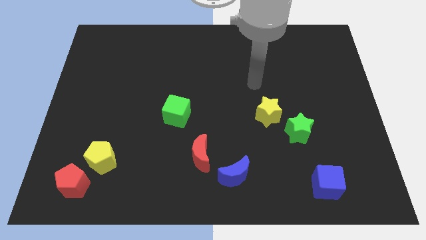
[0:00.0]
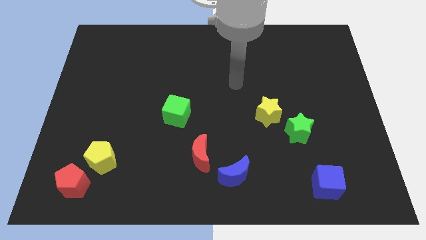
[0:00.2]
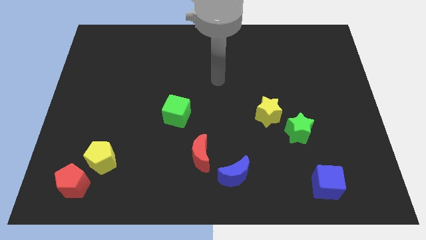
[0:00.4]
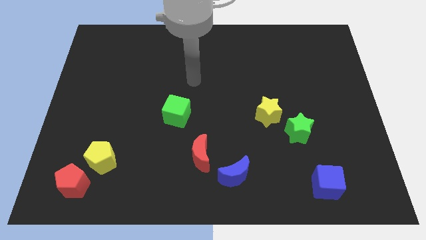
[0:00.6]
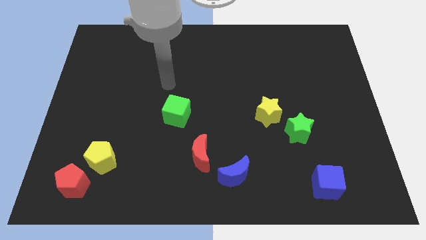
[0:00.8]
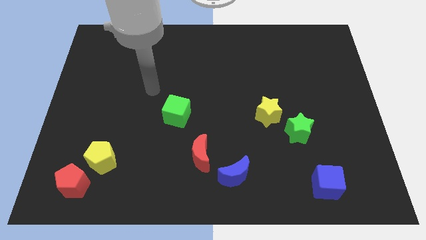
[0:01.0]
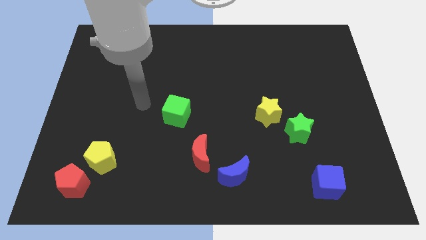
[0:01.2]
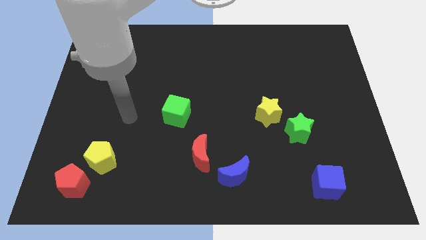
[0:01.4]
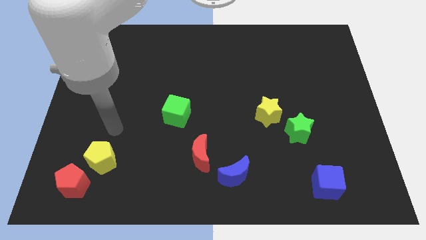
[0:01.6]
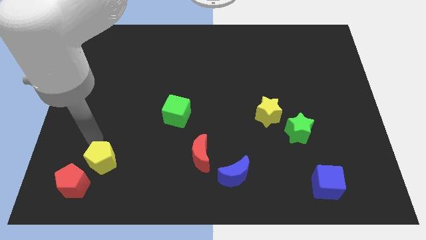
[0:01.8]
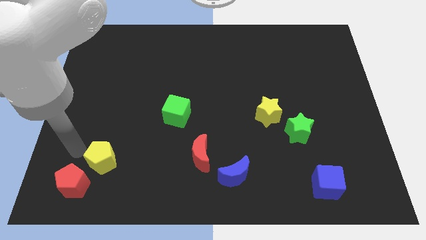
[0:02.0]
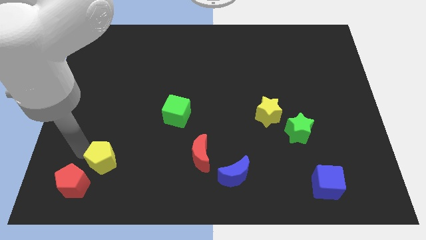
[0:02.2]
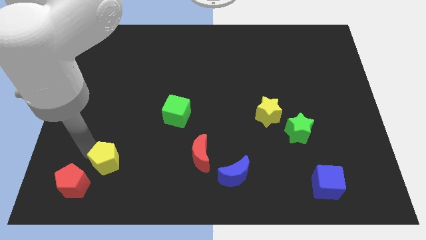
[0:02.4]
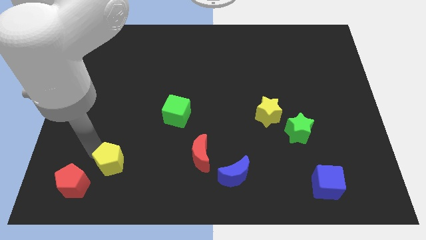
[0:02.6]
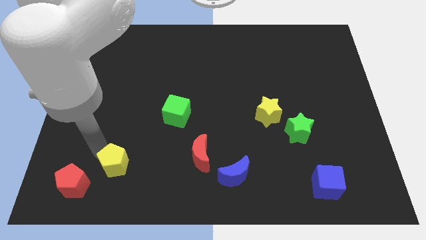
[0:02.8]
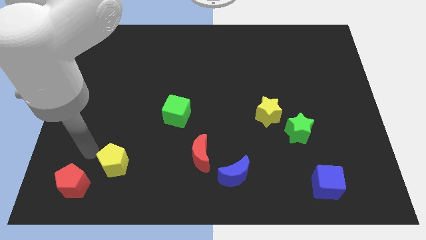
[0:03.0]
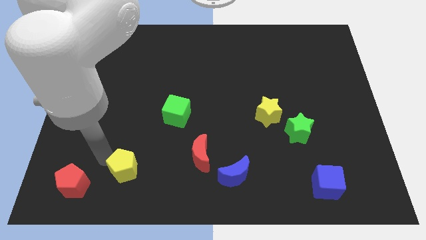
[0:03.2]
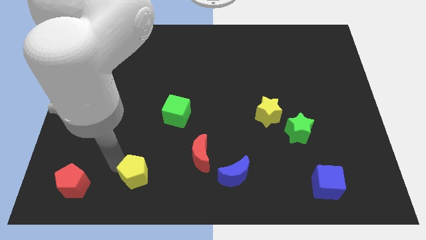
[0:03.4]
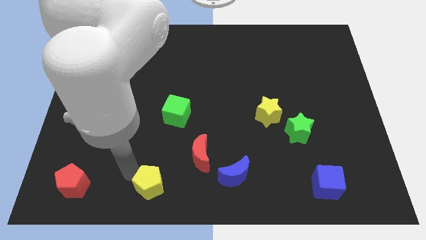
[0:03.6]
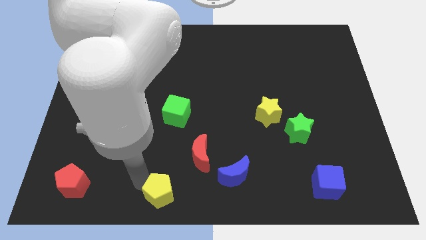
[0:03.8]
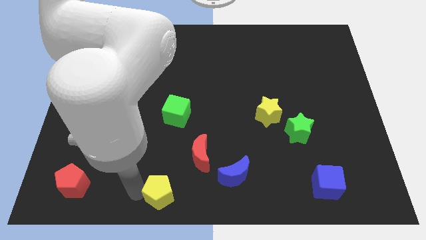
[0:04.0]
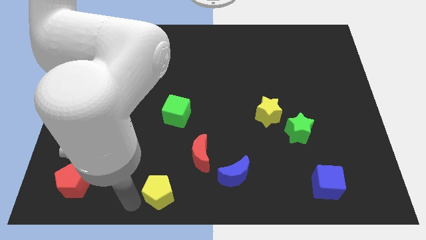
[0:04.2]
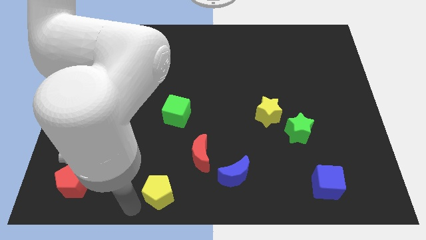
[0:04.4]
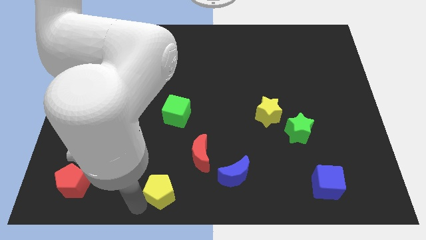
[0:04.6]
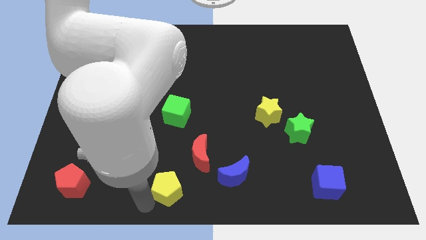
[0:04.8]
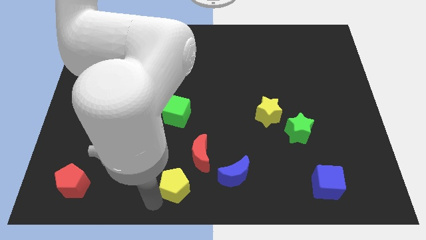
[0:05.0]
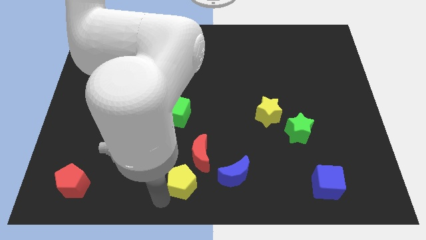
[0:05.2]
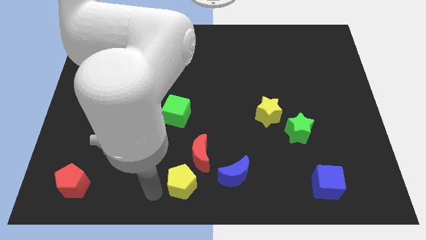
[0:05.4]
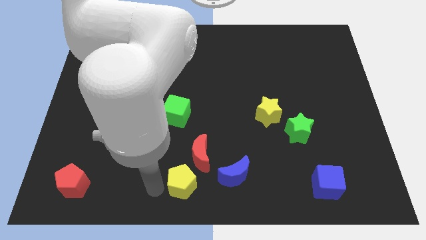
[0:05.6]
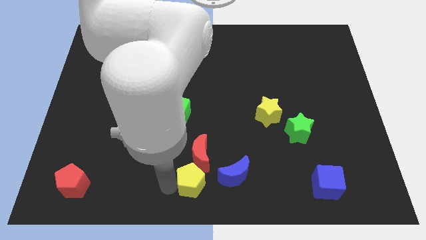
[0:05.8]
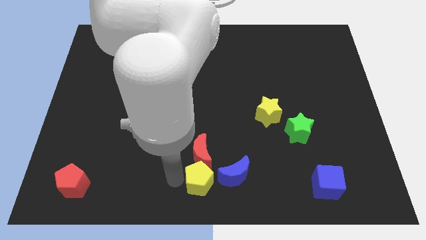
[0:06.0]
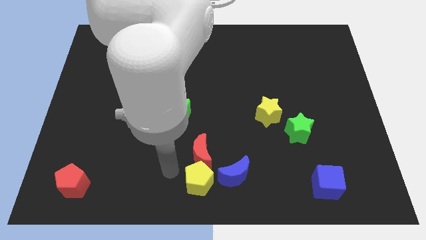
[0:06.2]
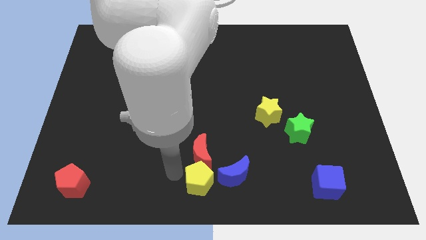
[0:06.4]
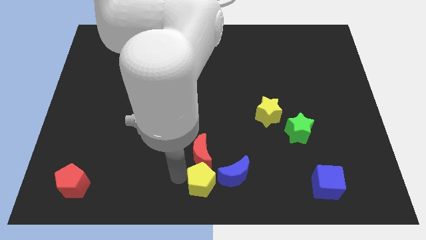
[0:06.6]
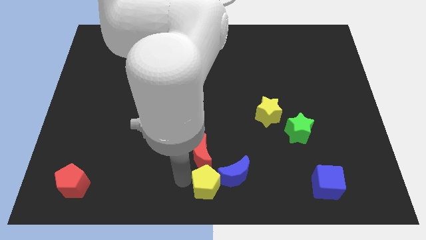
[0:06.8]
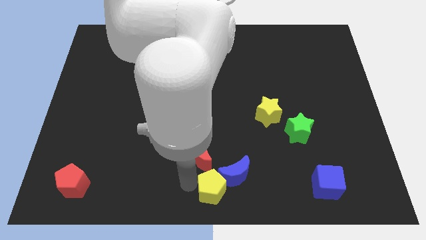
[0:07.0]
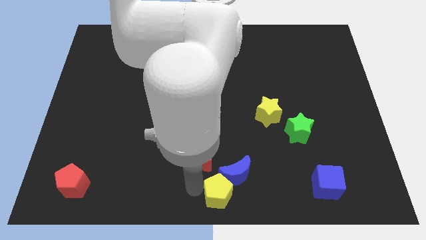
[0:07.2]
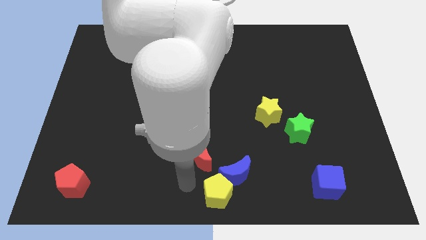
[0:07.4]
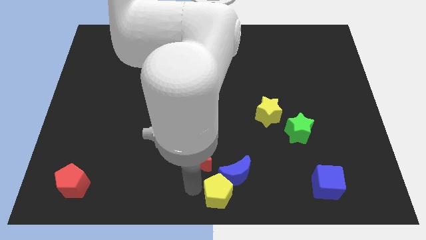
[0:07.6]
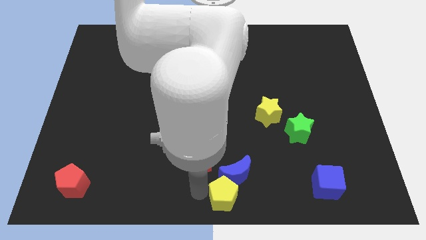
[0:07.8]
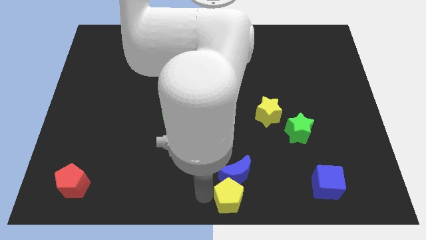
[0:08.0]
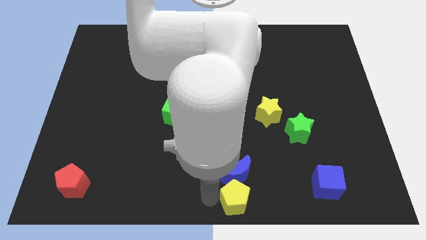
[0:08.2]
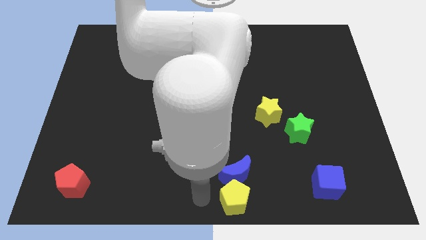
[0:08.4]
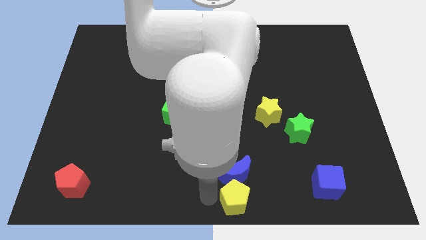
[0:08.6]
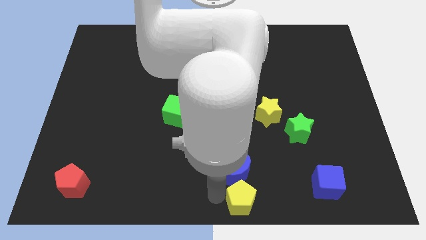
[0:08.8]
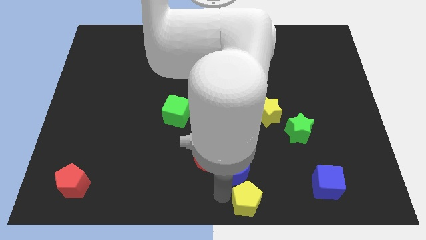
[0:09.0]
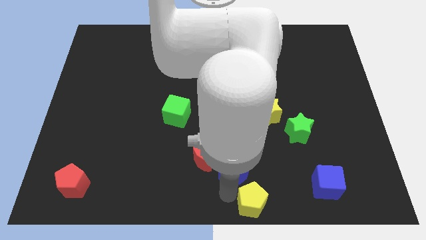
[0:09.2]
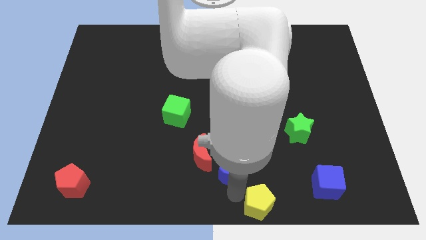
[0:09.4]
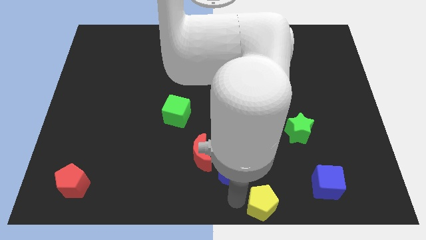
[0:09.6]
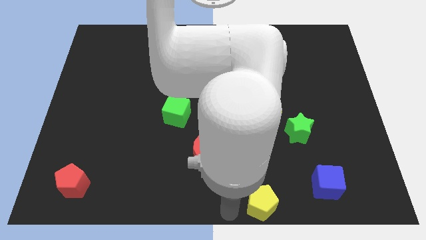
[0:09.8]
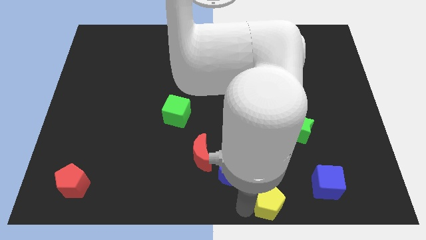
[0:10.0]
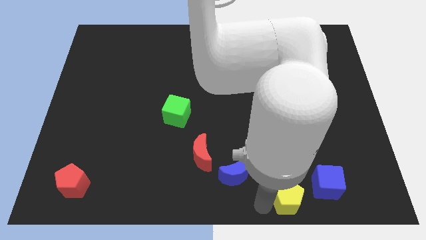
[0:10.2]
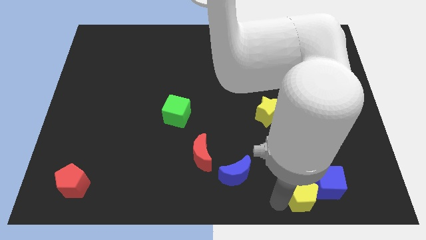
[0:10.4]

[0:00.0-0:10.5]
put the yellow pentagon close to the blue cube

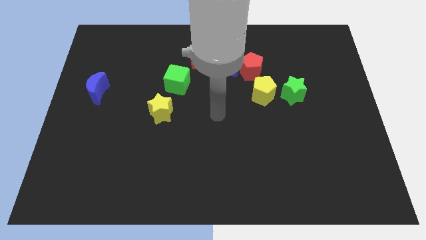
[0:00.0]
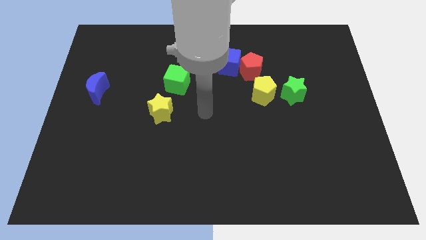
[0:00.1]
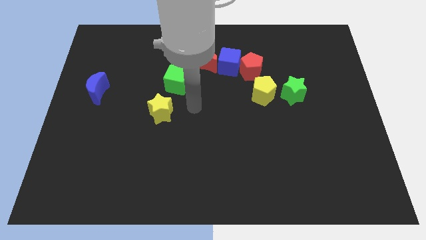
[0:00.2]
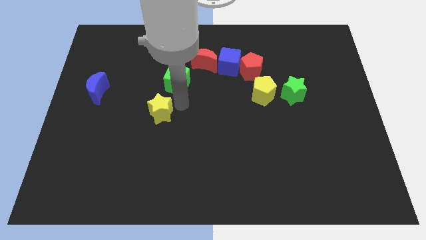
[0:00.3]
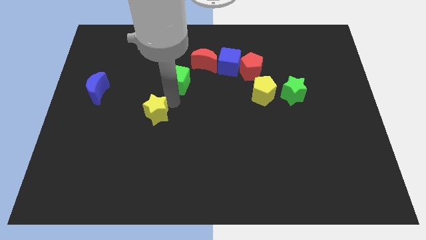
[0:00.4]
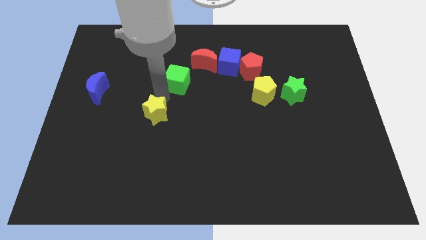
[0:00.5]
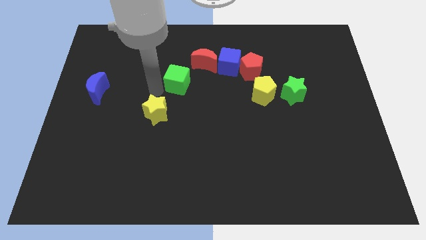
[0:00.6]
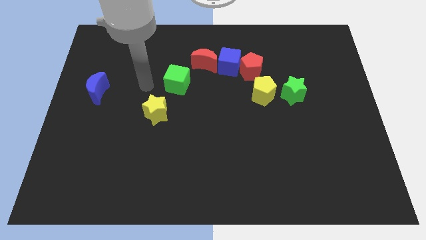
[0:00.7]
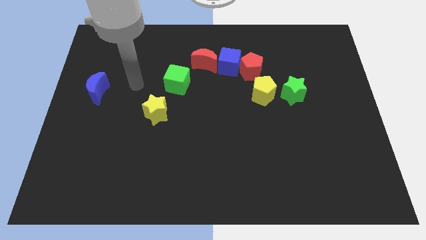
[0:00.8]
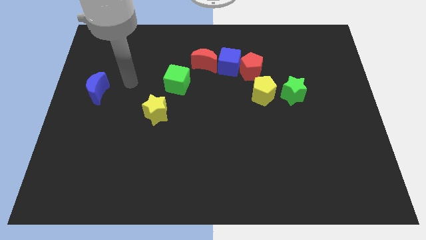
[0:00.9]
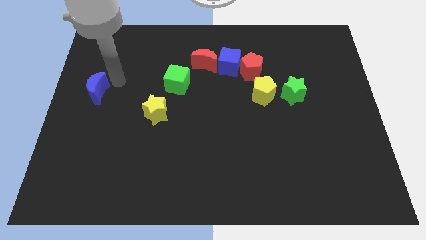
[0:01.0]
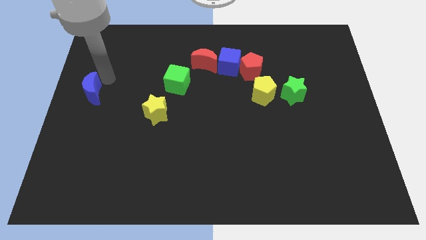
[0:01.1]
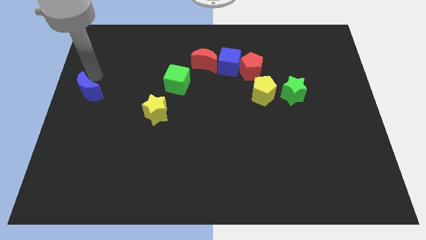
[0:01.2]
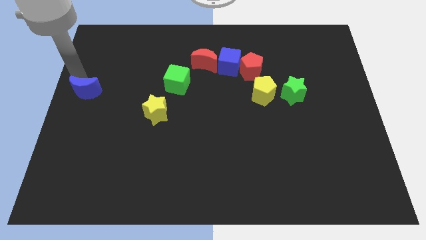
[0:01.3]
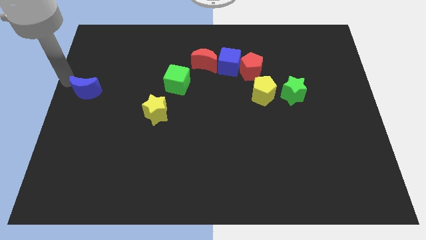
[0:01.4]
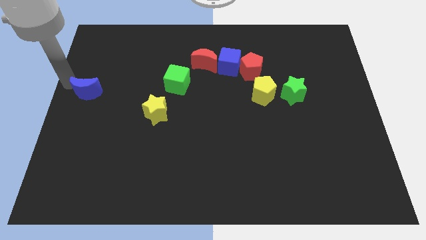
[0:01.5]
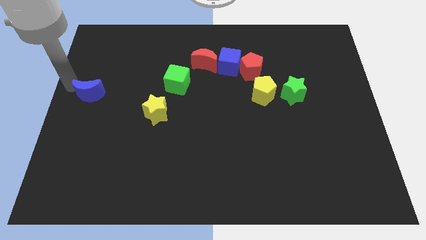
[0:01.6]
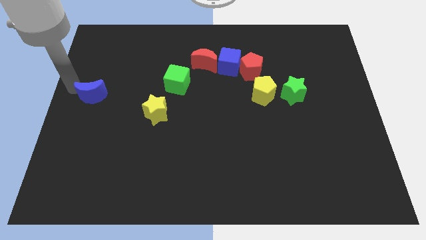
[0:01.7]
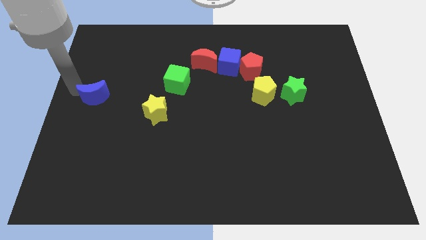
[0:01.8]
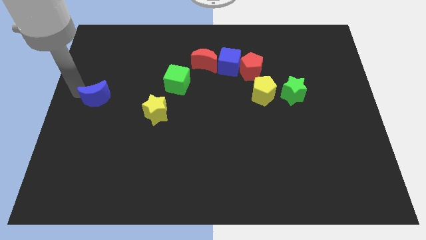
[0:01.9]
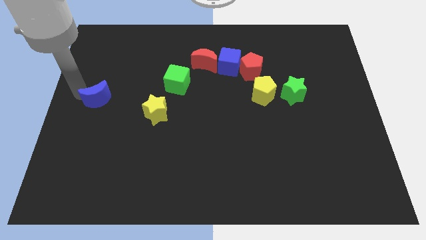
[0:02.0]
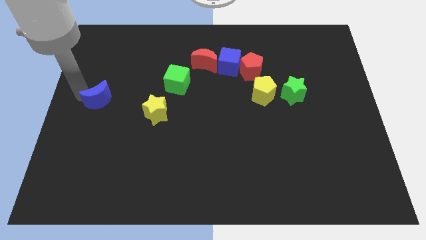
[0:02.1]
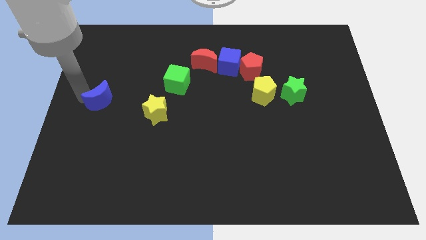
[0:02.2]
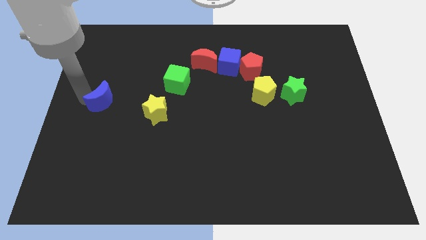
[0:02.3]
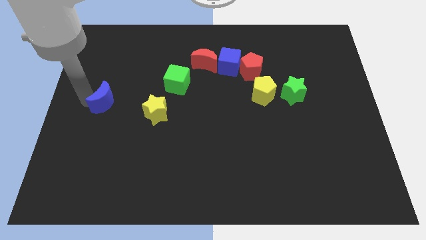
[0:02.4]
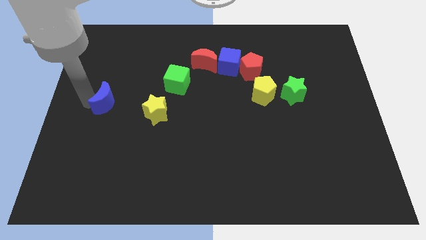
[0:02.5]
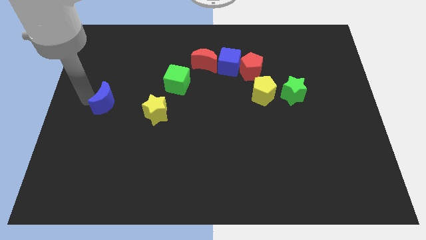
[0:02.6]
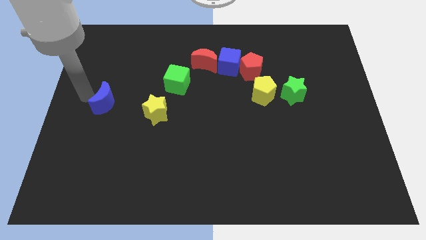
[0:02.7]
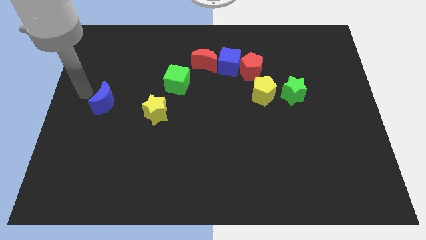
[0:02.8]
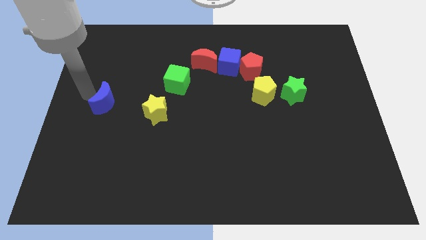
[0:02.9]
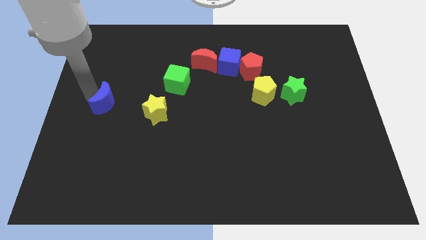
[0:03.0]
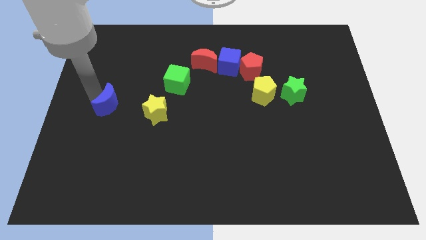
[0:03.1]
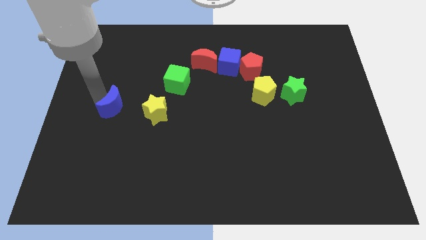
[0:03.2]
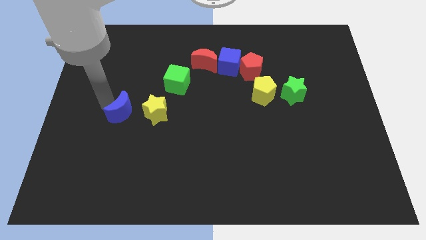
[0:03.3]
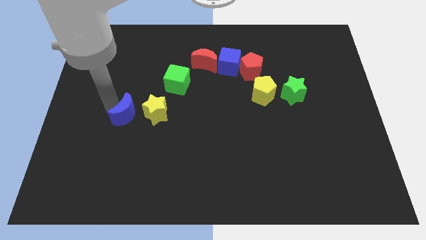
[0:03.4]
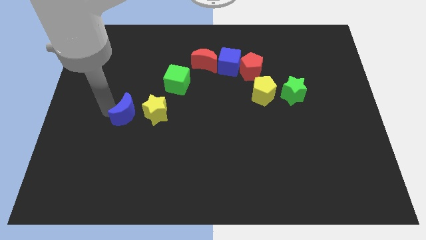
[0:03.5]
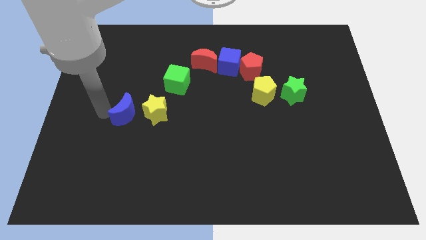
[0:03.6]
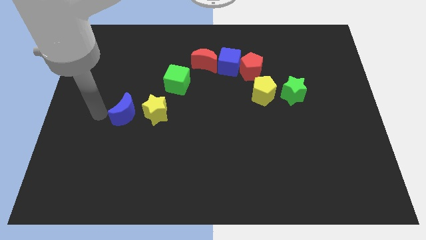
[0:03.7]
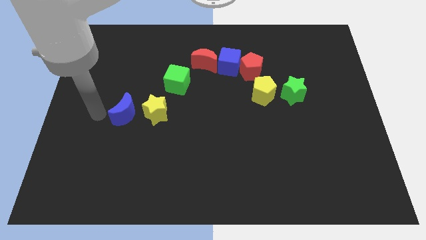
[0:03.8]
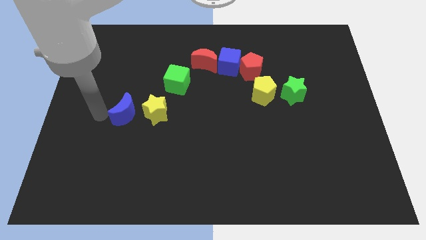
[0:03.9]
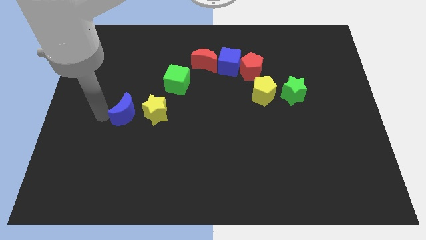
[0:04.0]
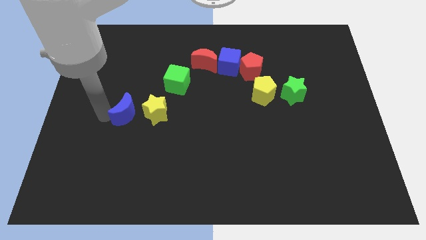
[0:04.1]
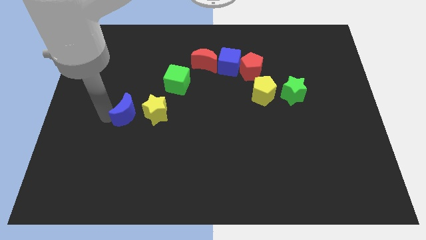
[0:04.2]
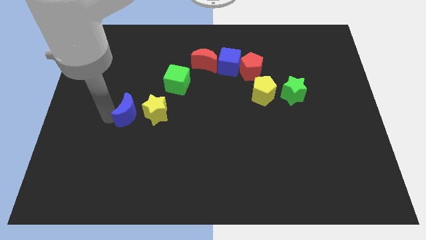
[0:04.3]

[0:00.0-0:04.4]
push the blue moon close to the yellow star
